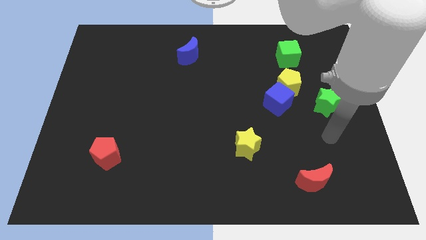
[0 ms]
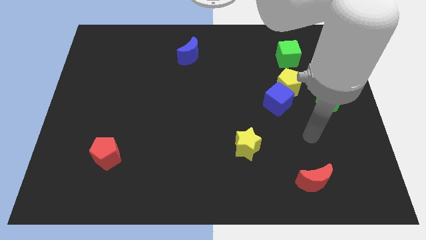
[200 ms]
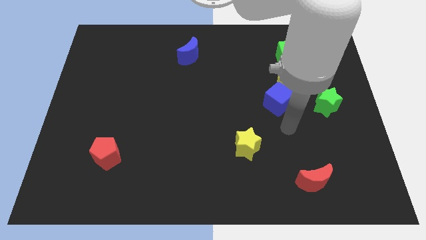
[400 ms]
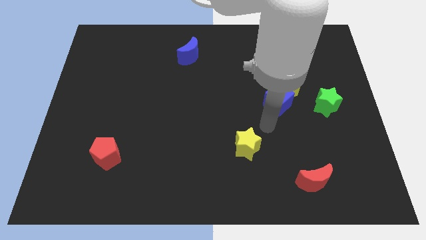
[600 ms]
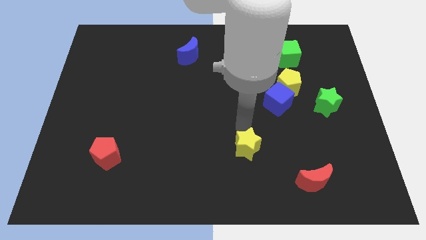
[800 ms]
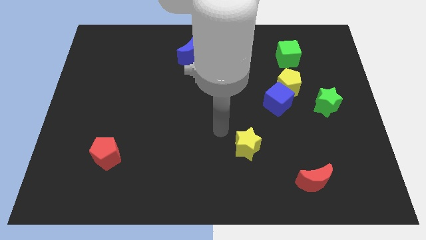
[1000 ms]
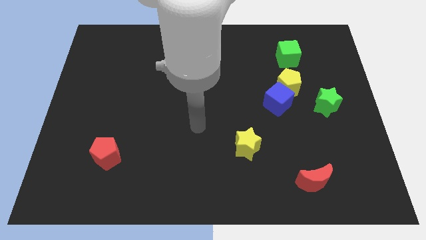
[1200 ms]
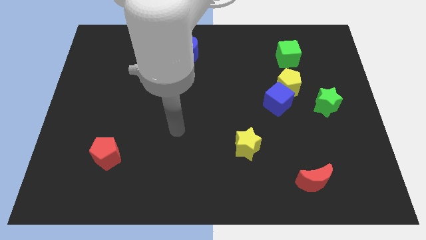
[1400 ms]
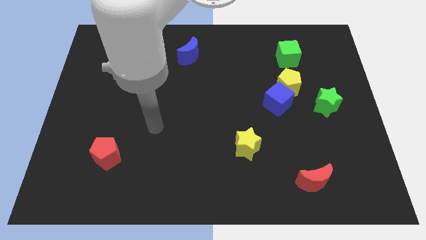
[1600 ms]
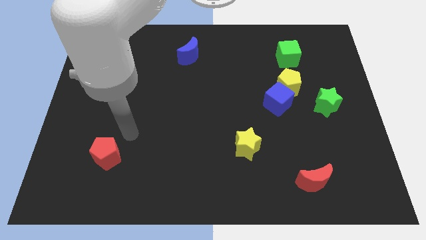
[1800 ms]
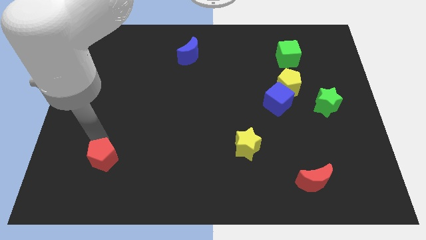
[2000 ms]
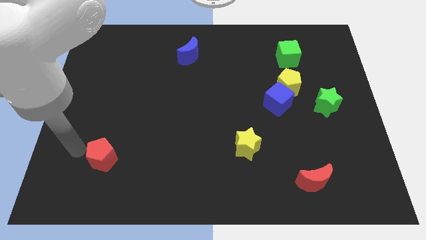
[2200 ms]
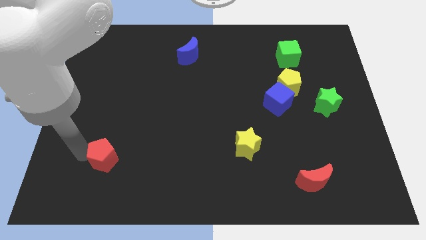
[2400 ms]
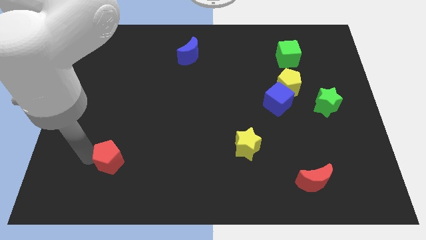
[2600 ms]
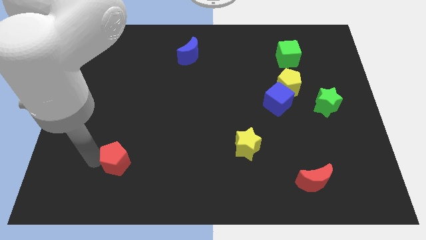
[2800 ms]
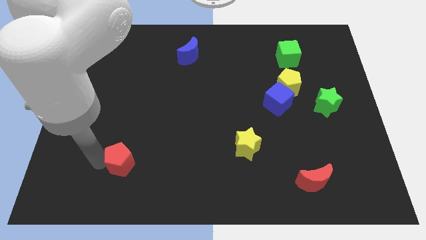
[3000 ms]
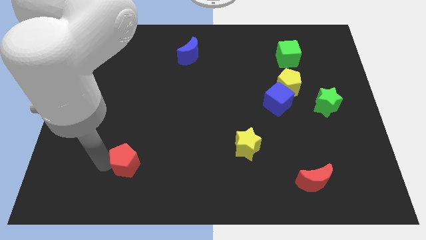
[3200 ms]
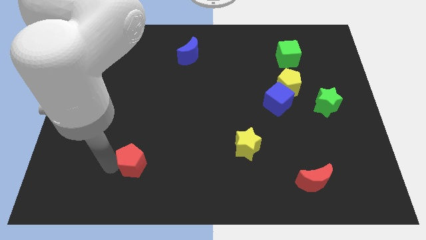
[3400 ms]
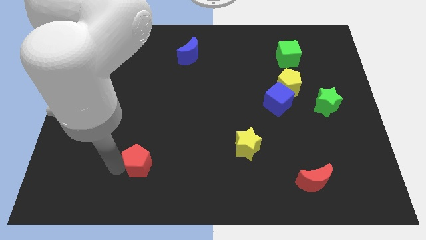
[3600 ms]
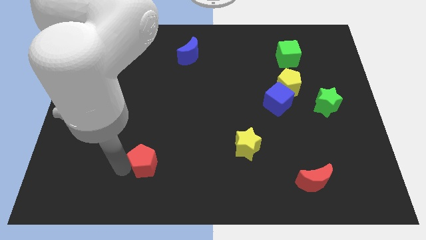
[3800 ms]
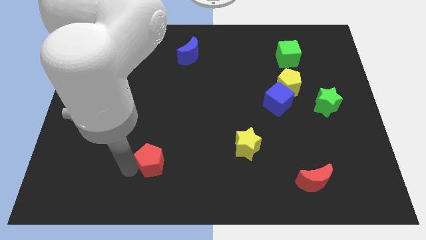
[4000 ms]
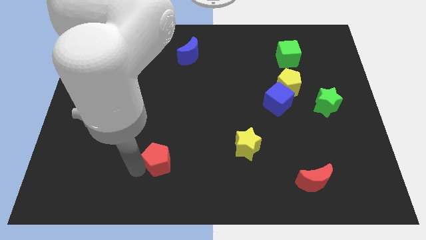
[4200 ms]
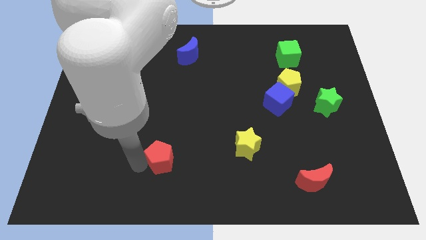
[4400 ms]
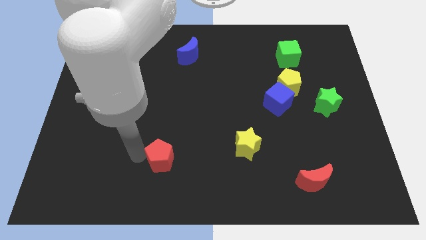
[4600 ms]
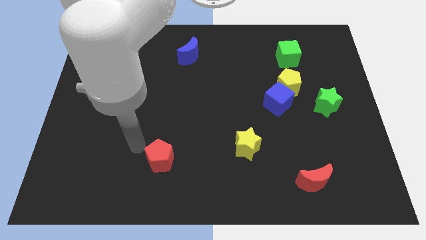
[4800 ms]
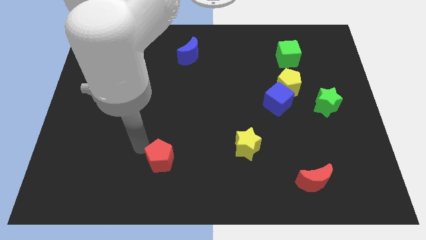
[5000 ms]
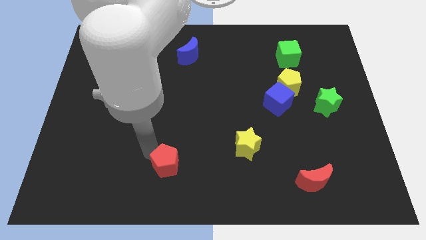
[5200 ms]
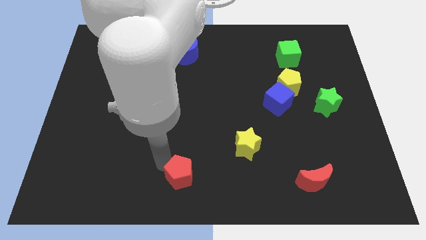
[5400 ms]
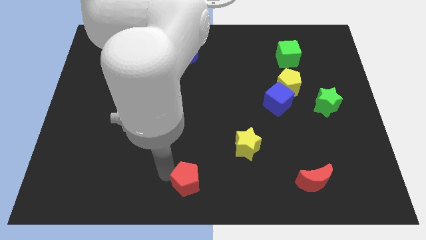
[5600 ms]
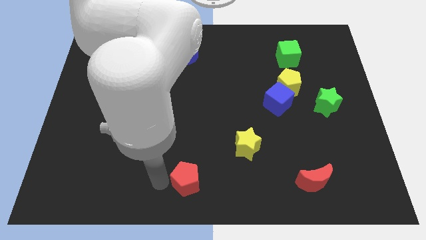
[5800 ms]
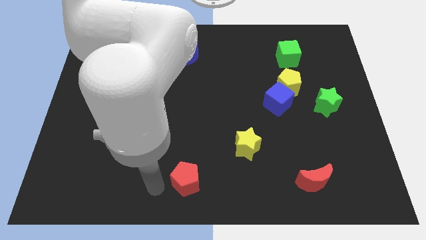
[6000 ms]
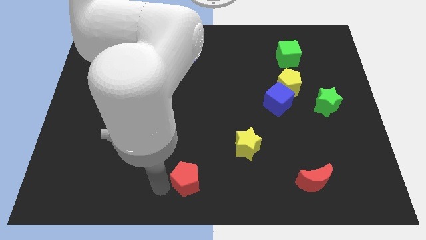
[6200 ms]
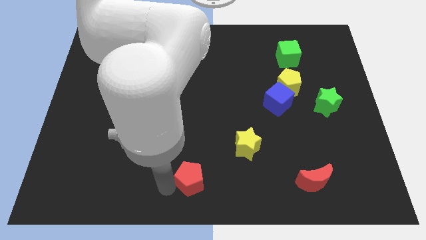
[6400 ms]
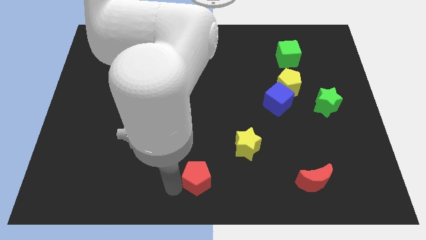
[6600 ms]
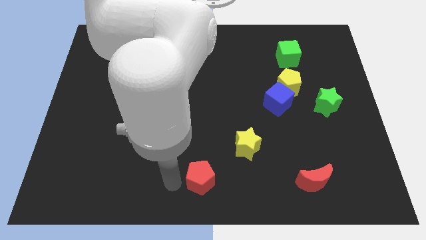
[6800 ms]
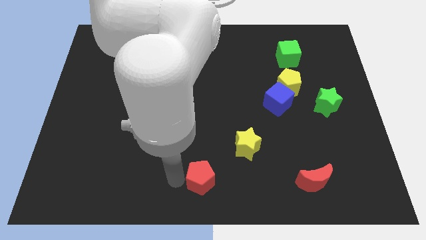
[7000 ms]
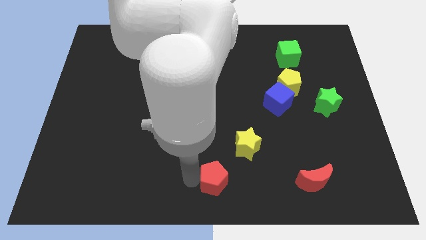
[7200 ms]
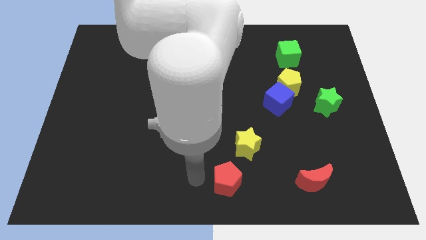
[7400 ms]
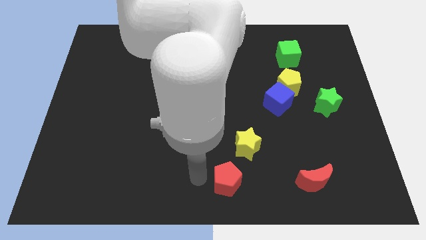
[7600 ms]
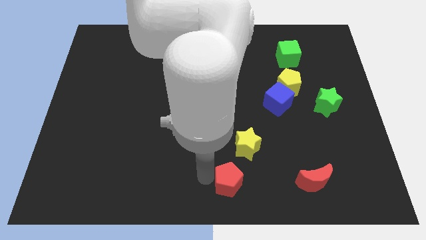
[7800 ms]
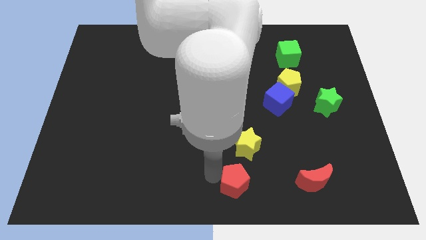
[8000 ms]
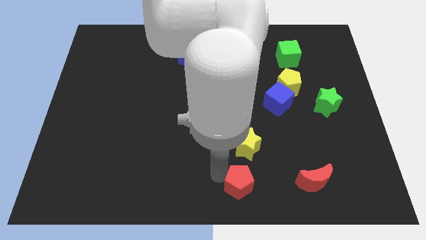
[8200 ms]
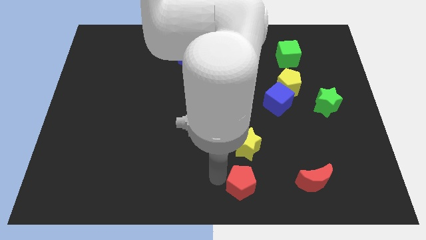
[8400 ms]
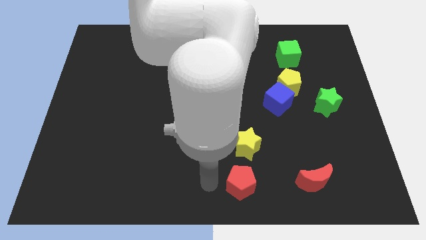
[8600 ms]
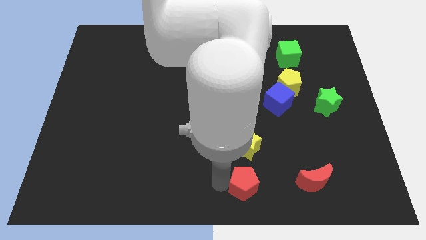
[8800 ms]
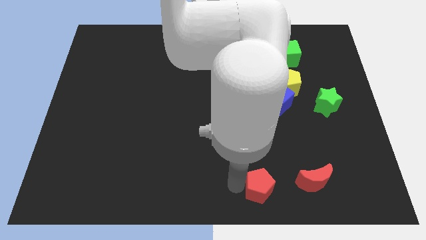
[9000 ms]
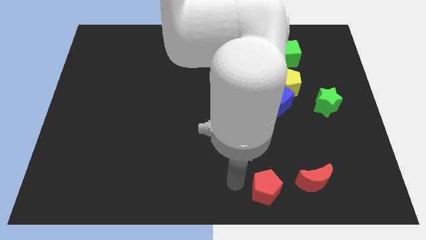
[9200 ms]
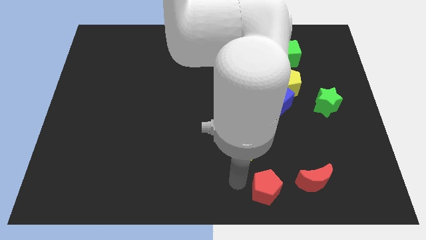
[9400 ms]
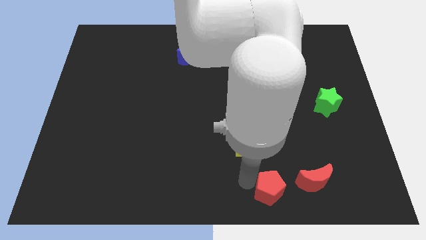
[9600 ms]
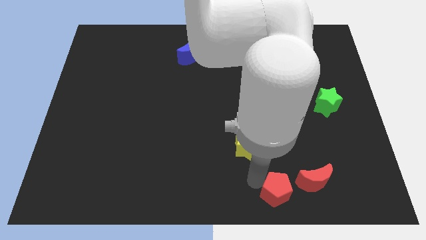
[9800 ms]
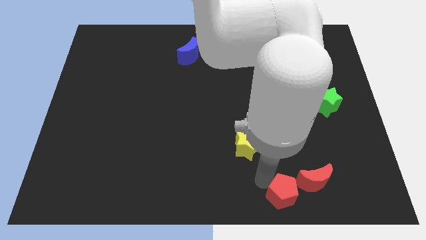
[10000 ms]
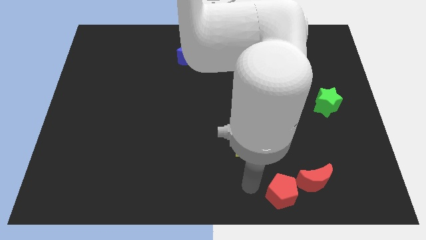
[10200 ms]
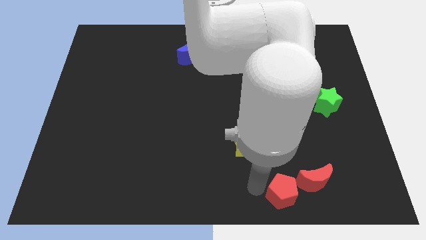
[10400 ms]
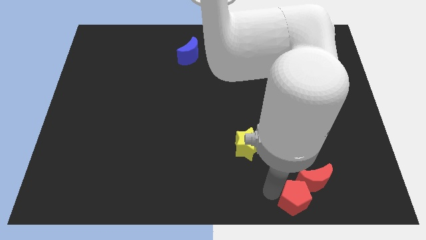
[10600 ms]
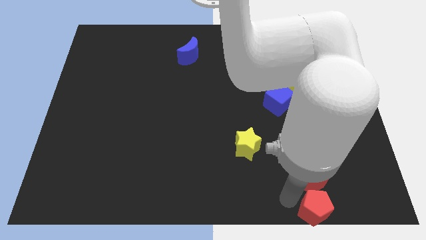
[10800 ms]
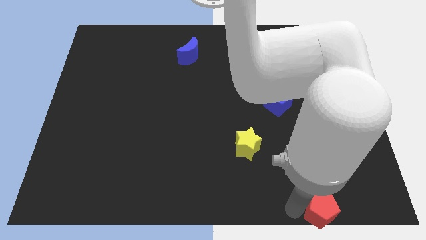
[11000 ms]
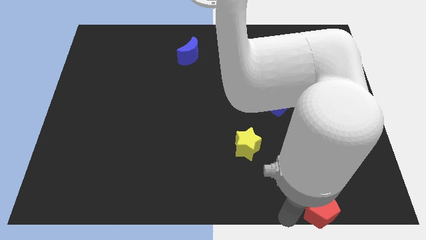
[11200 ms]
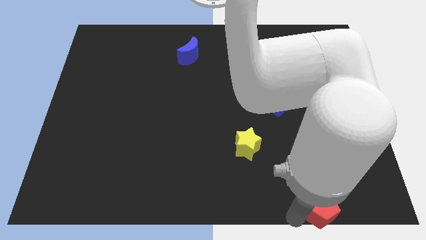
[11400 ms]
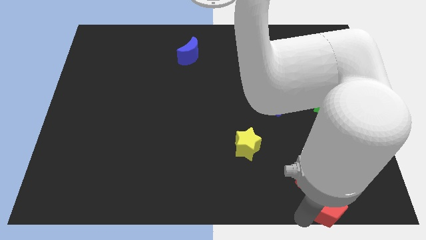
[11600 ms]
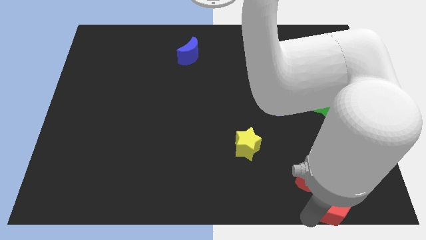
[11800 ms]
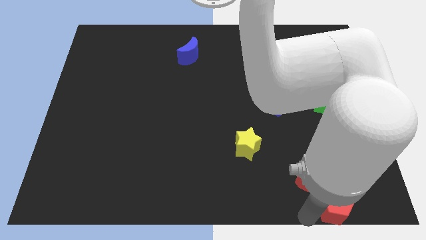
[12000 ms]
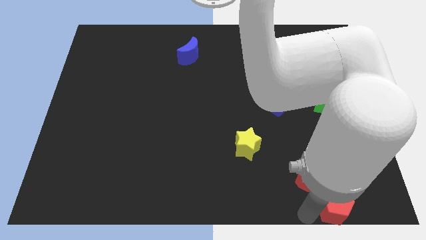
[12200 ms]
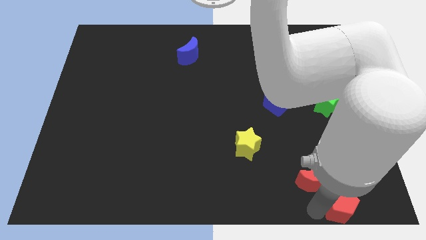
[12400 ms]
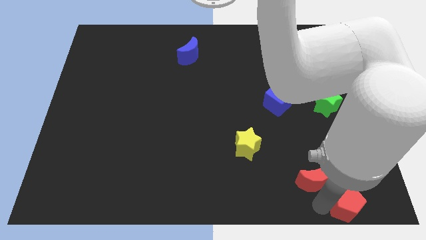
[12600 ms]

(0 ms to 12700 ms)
move the red pentagon to the lower right corner
